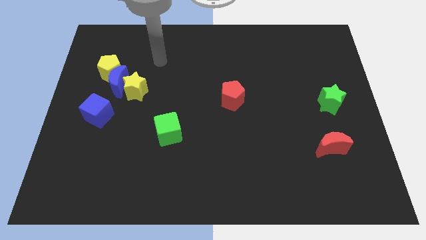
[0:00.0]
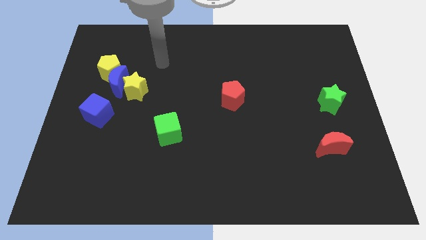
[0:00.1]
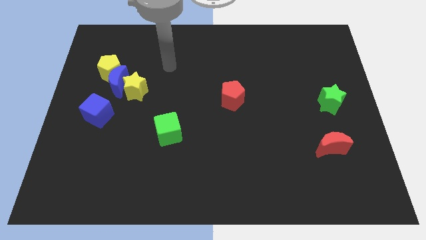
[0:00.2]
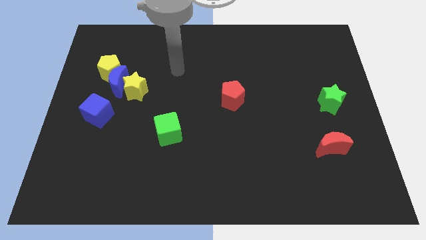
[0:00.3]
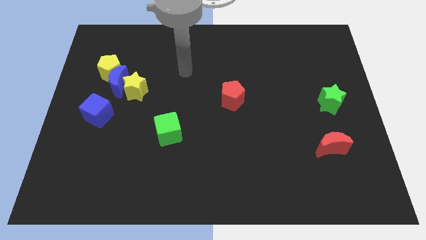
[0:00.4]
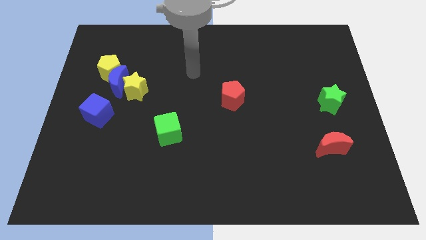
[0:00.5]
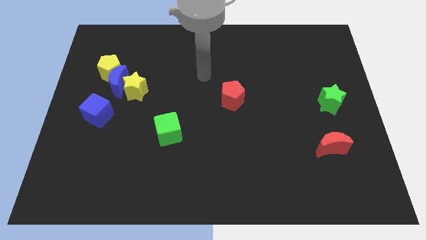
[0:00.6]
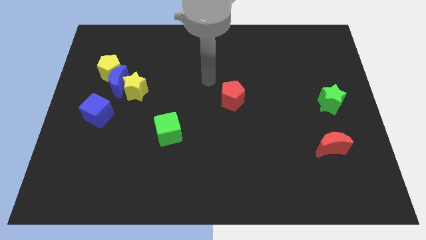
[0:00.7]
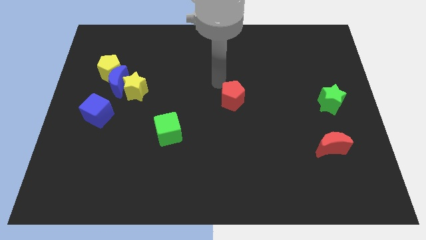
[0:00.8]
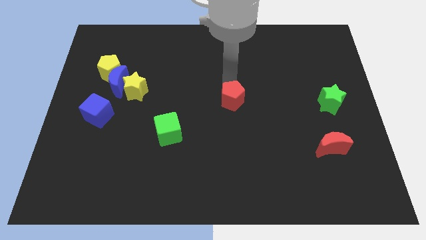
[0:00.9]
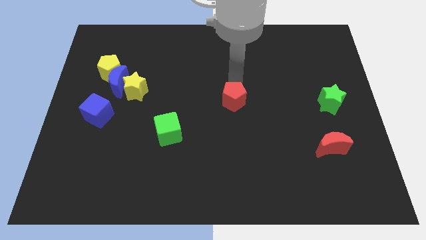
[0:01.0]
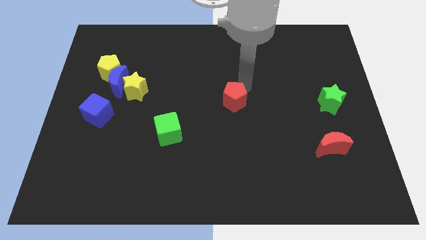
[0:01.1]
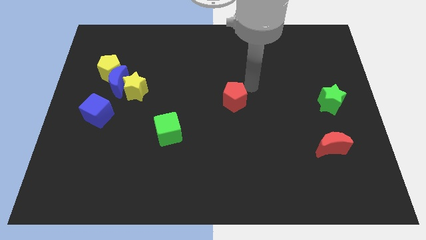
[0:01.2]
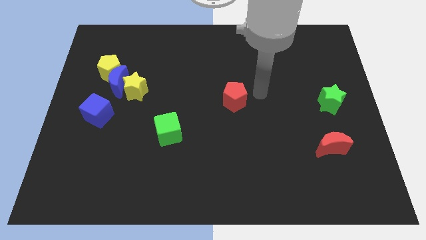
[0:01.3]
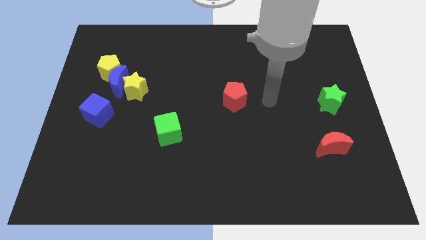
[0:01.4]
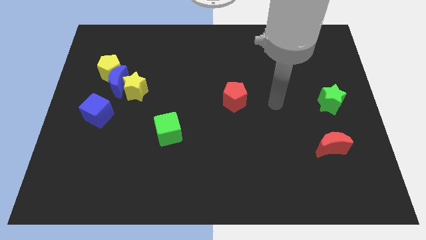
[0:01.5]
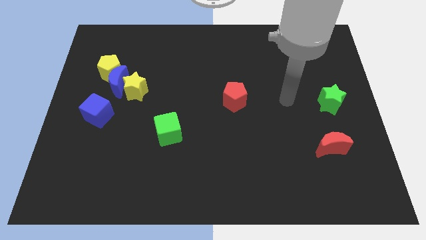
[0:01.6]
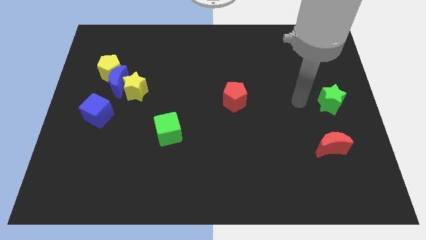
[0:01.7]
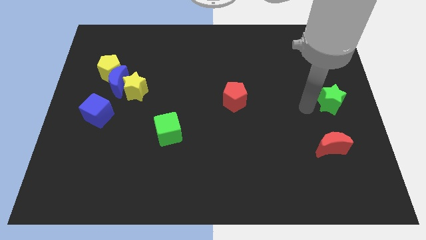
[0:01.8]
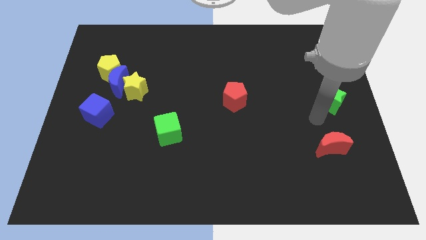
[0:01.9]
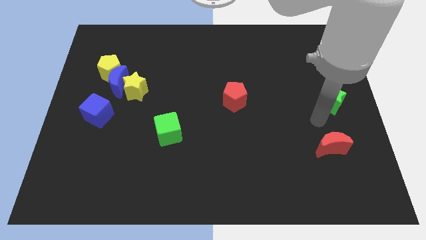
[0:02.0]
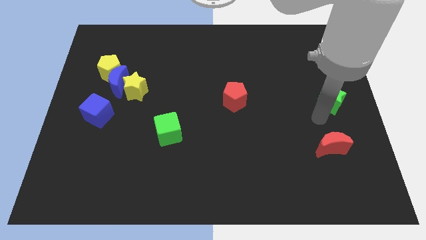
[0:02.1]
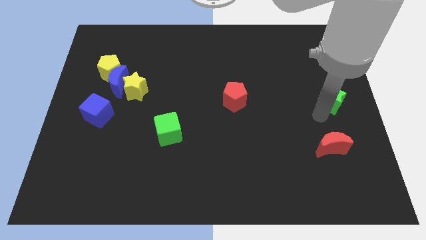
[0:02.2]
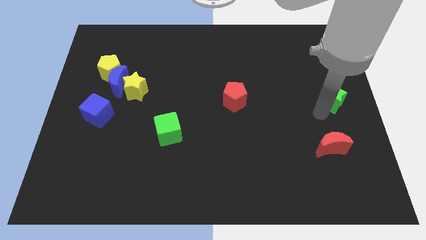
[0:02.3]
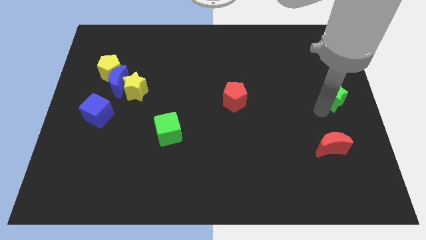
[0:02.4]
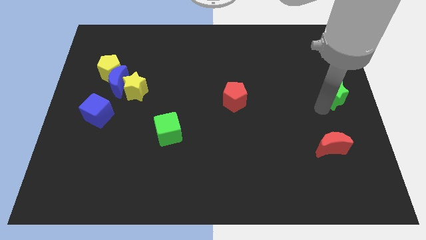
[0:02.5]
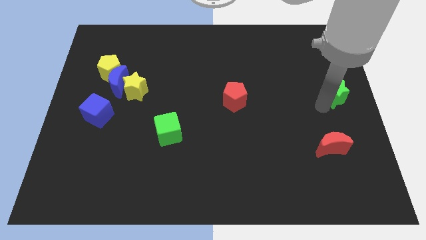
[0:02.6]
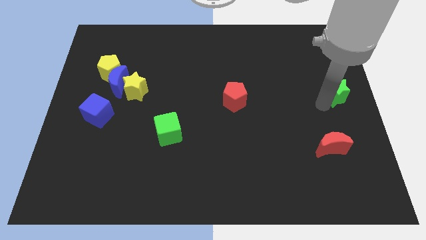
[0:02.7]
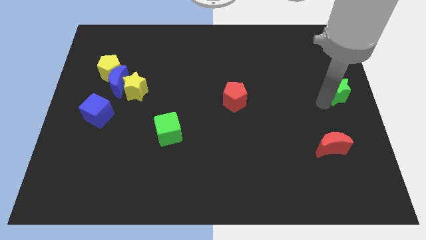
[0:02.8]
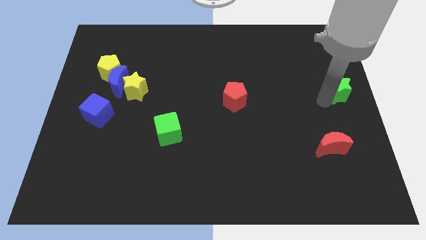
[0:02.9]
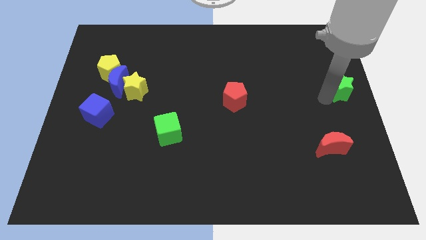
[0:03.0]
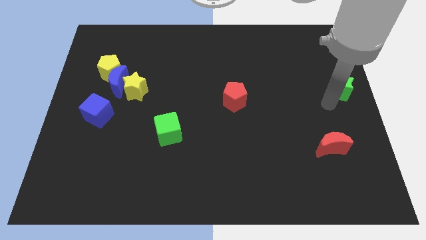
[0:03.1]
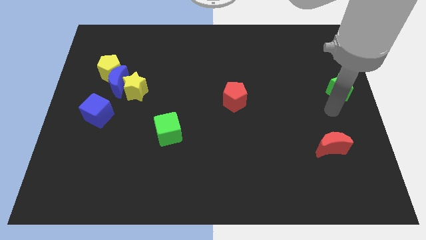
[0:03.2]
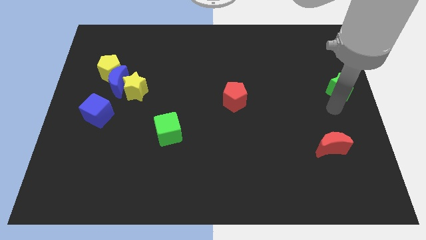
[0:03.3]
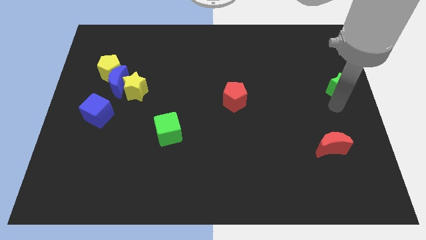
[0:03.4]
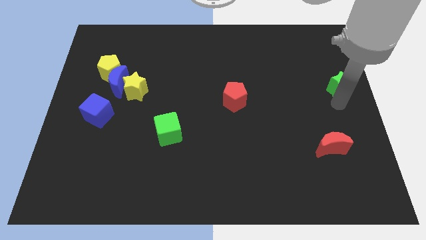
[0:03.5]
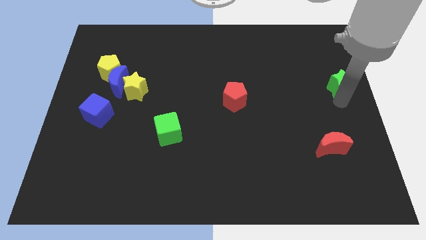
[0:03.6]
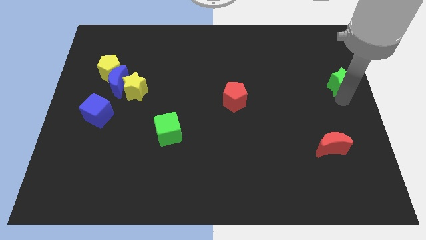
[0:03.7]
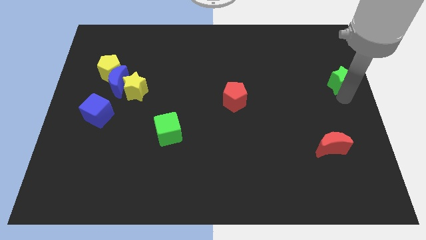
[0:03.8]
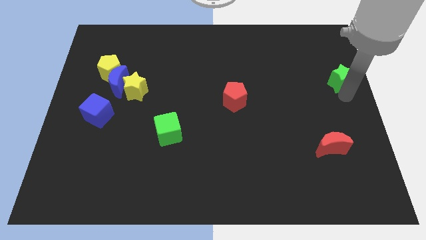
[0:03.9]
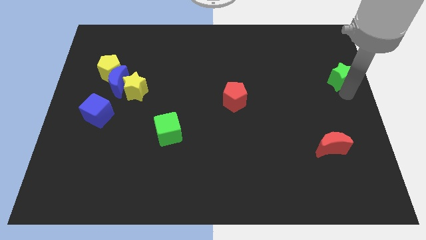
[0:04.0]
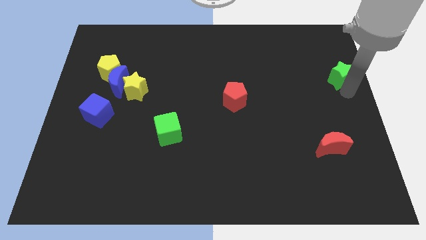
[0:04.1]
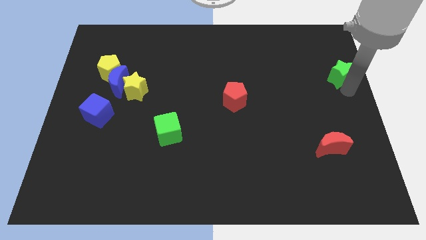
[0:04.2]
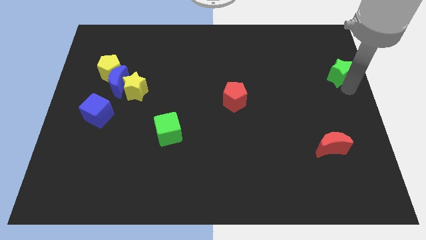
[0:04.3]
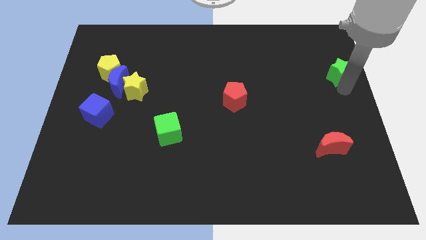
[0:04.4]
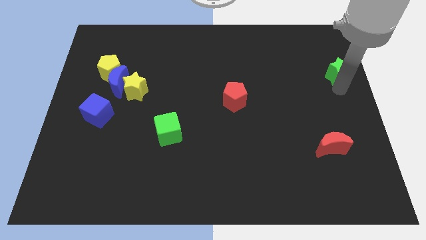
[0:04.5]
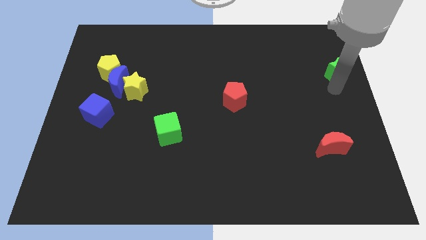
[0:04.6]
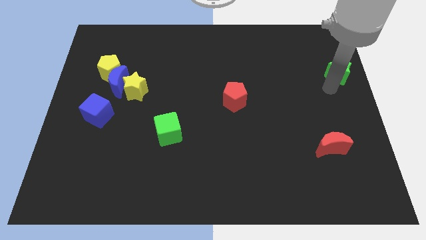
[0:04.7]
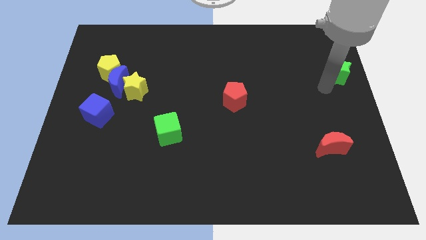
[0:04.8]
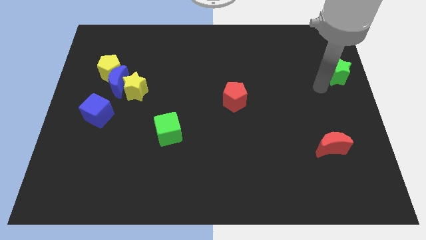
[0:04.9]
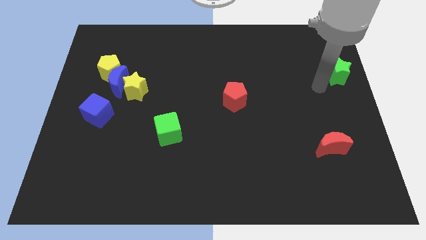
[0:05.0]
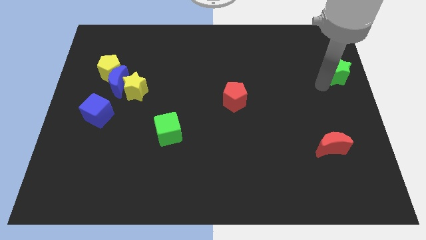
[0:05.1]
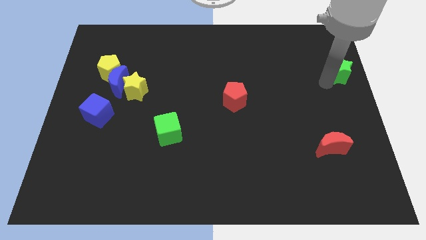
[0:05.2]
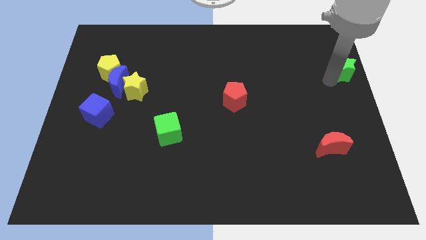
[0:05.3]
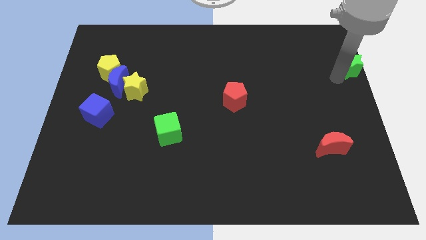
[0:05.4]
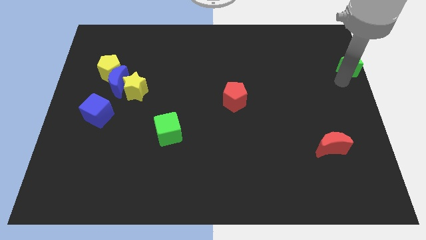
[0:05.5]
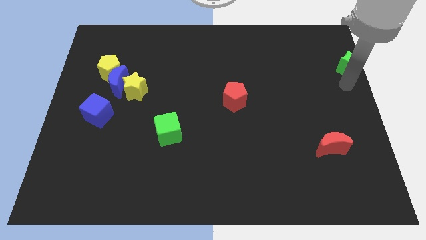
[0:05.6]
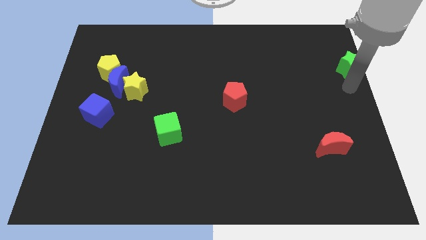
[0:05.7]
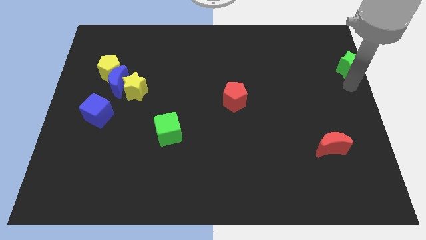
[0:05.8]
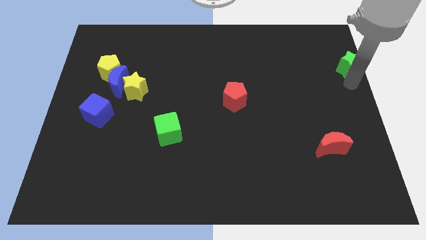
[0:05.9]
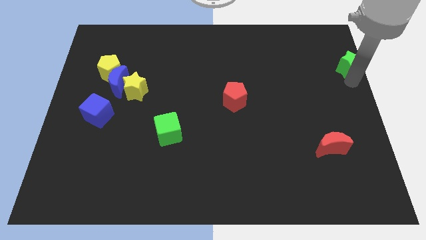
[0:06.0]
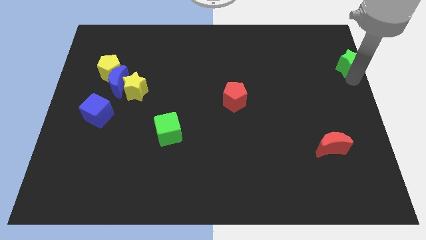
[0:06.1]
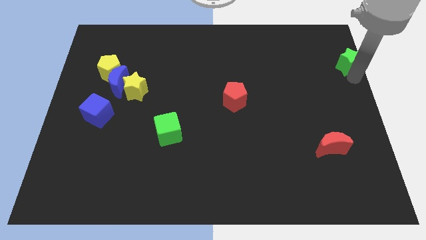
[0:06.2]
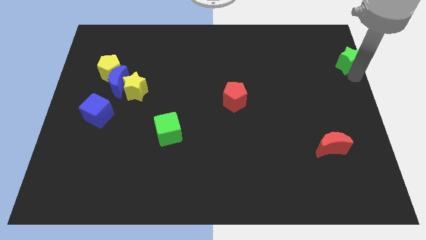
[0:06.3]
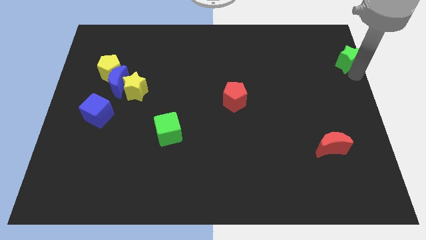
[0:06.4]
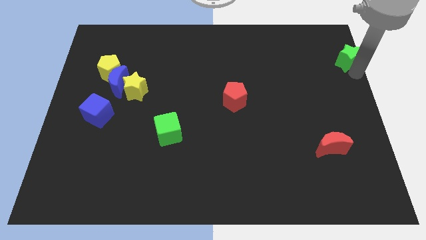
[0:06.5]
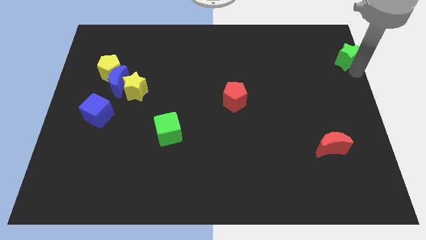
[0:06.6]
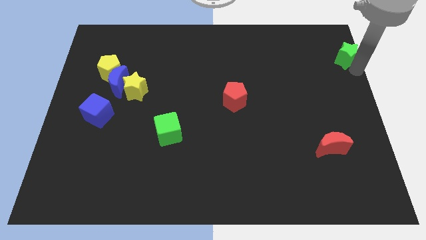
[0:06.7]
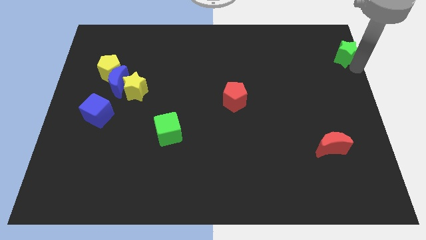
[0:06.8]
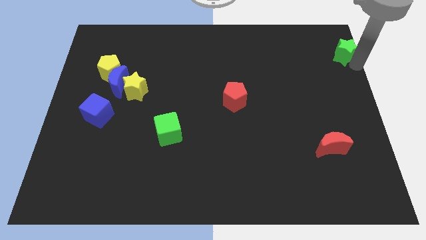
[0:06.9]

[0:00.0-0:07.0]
slide the green star to the top right corner
